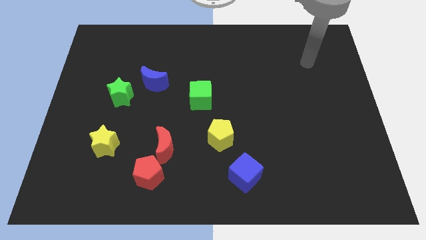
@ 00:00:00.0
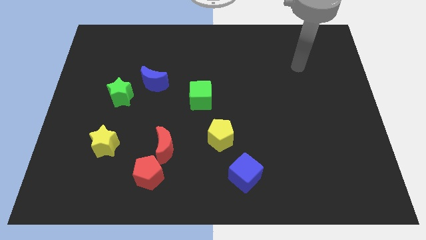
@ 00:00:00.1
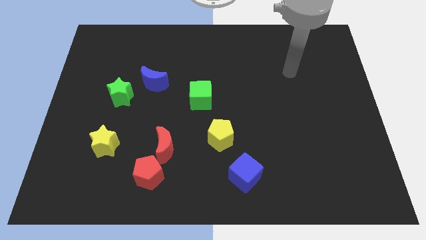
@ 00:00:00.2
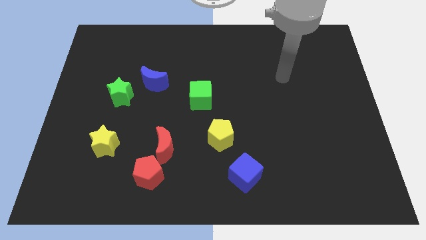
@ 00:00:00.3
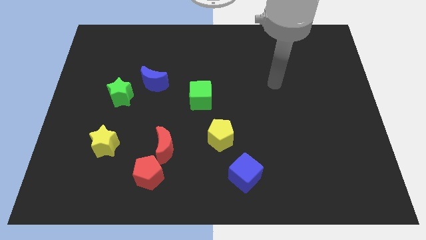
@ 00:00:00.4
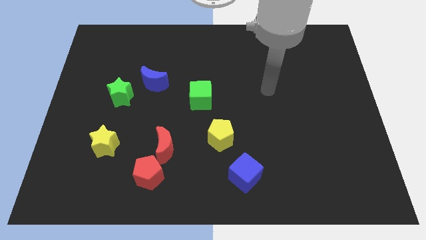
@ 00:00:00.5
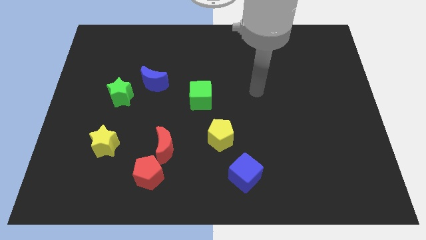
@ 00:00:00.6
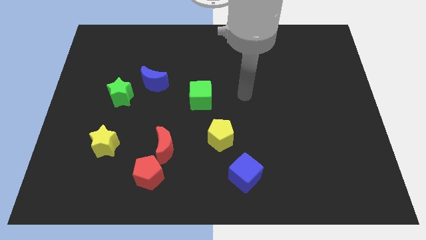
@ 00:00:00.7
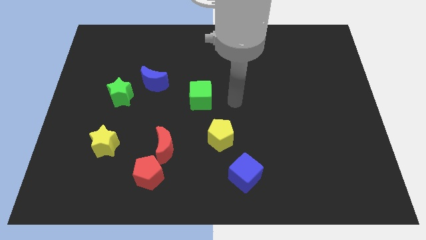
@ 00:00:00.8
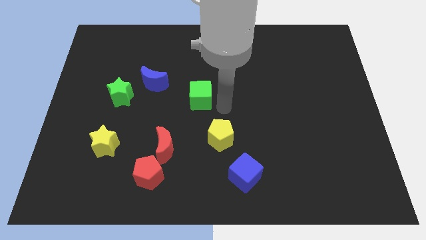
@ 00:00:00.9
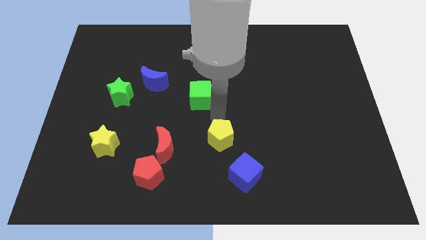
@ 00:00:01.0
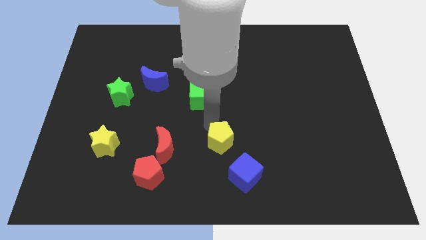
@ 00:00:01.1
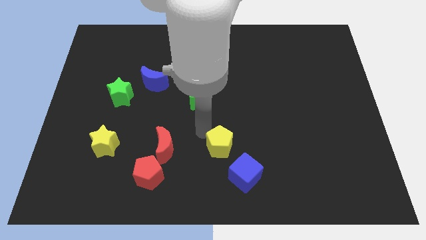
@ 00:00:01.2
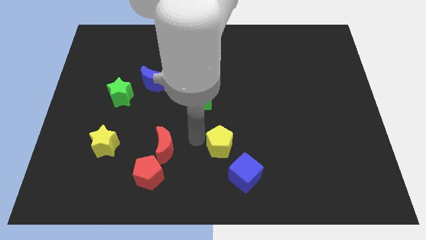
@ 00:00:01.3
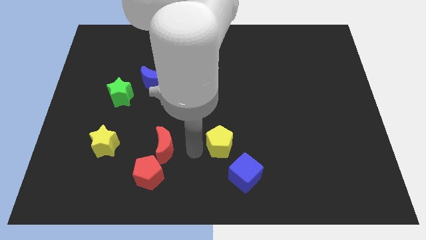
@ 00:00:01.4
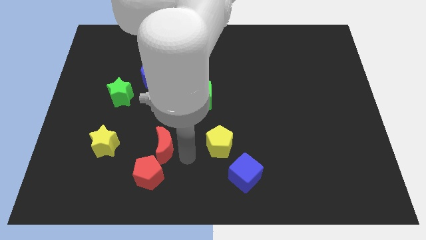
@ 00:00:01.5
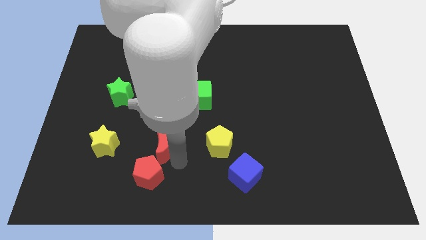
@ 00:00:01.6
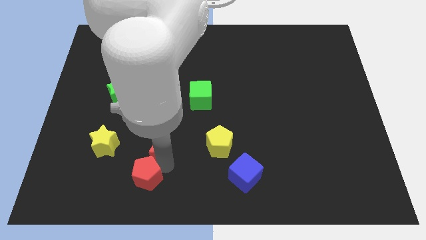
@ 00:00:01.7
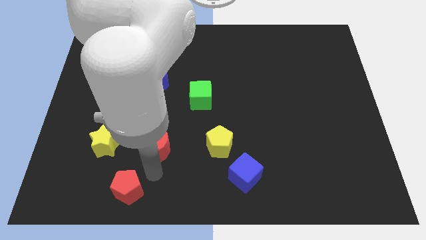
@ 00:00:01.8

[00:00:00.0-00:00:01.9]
move the red moon away from the red pentagon

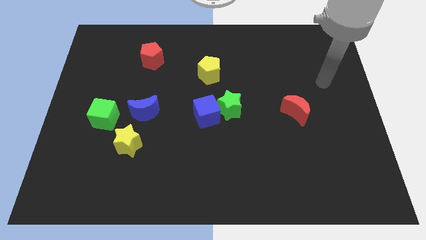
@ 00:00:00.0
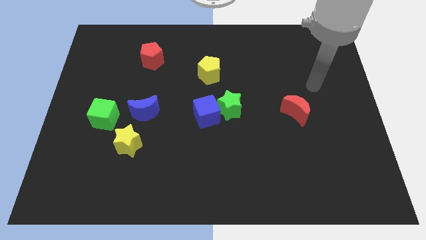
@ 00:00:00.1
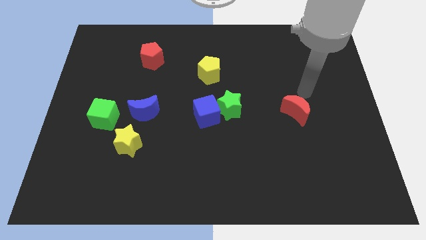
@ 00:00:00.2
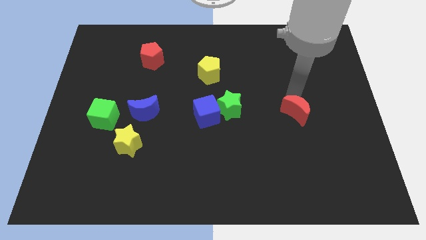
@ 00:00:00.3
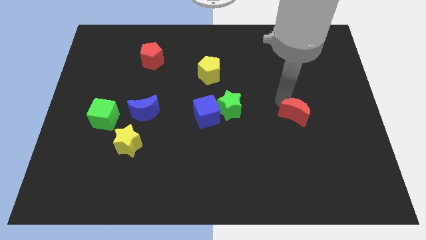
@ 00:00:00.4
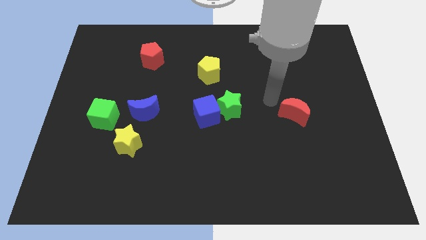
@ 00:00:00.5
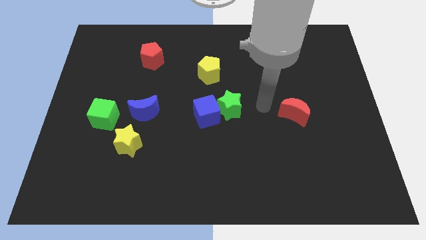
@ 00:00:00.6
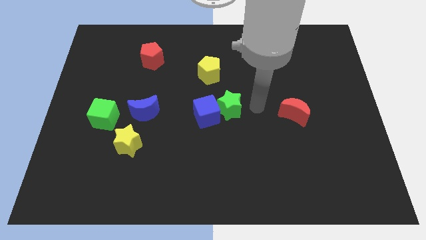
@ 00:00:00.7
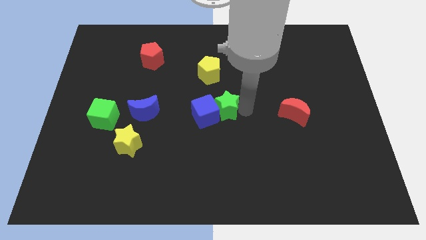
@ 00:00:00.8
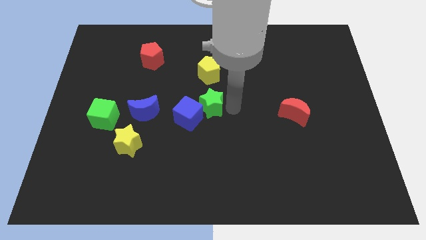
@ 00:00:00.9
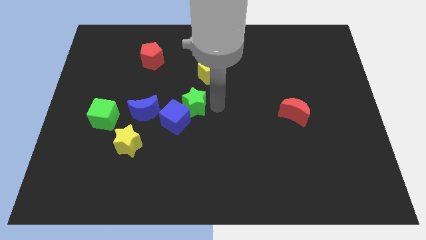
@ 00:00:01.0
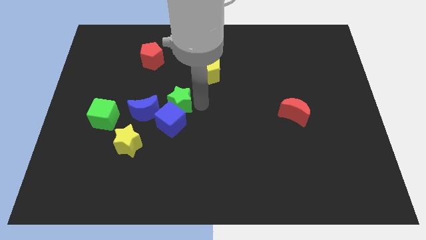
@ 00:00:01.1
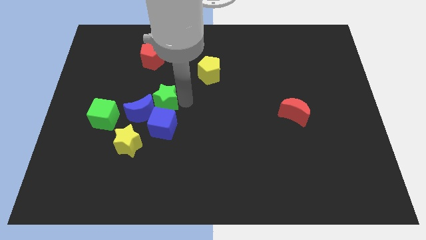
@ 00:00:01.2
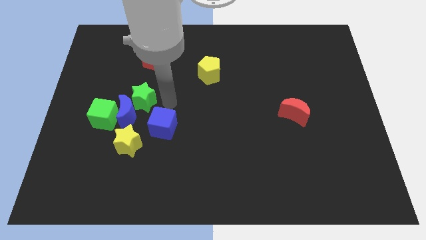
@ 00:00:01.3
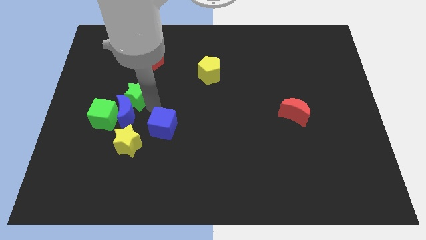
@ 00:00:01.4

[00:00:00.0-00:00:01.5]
move the blue cube away from the green star

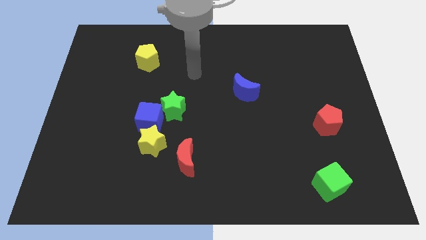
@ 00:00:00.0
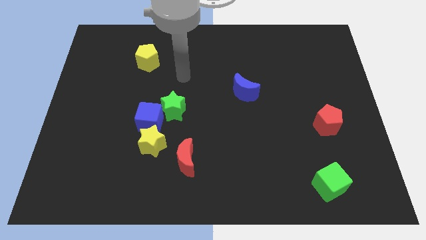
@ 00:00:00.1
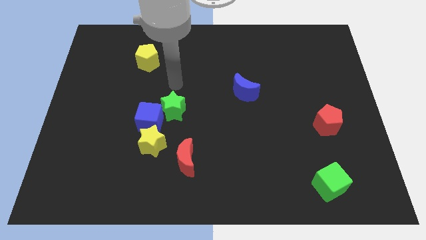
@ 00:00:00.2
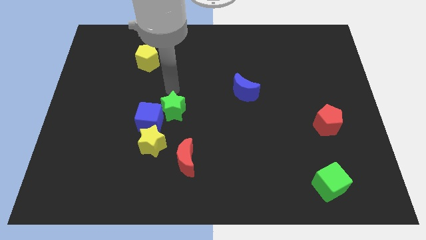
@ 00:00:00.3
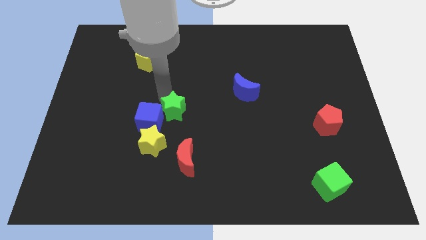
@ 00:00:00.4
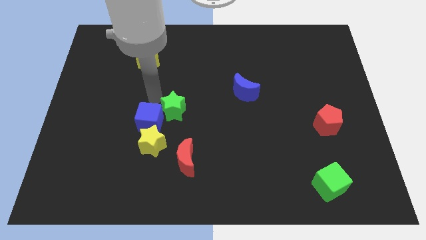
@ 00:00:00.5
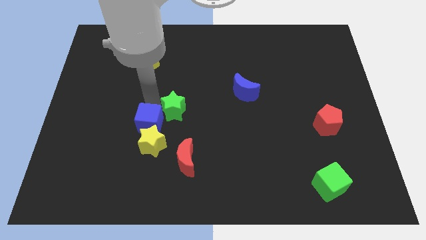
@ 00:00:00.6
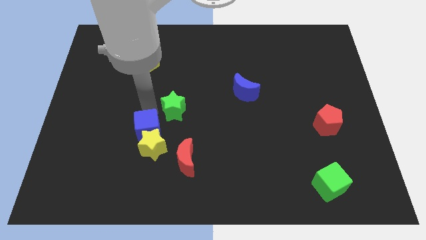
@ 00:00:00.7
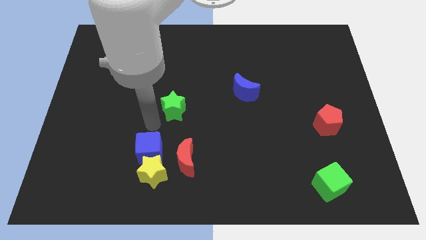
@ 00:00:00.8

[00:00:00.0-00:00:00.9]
move the green star away from the blue cube

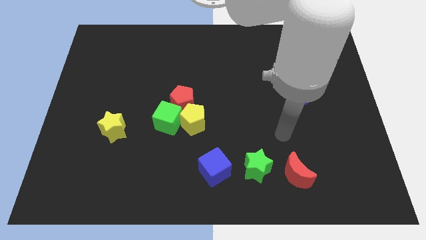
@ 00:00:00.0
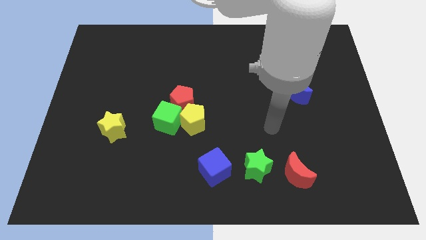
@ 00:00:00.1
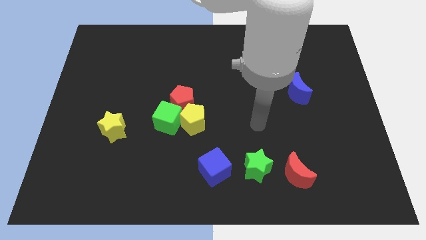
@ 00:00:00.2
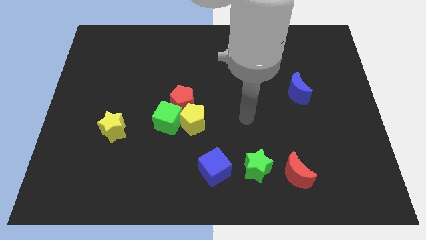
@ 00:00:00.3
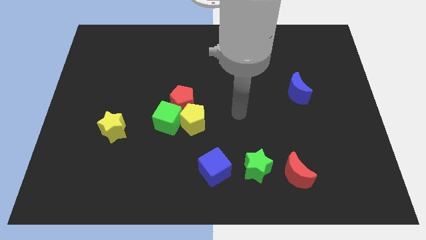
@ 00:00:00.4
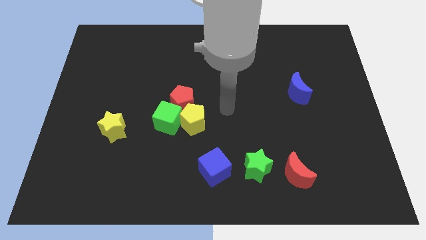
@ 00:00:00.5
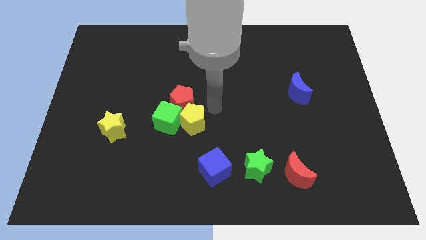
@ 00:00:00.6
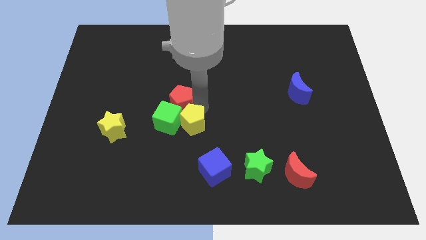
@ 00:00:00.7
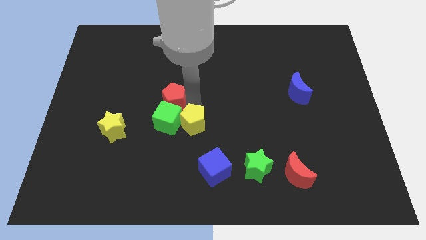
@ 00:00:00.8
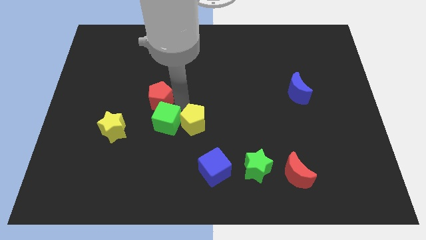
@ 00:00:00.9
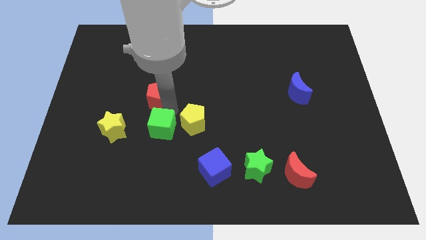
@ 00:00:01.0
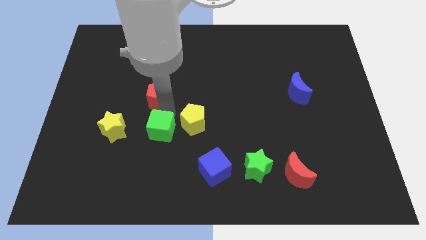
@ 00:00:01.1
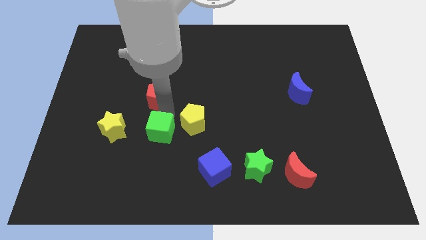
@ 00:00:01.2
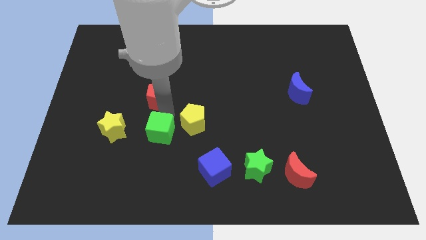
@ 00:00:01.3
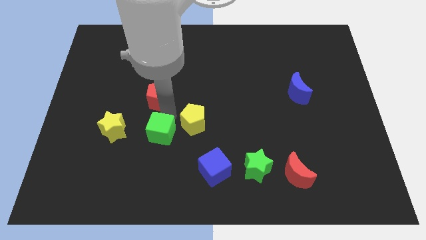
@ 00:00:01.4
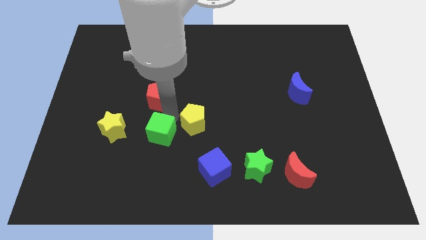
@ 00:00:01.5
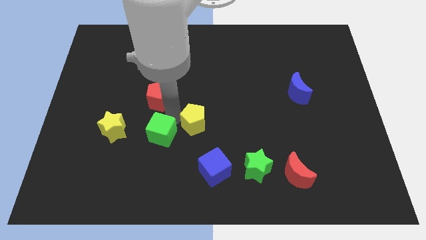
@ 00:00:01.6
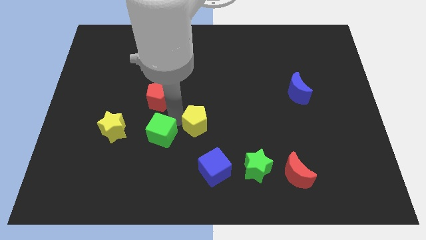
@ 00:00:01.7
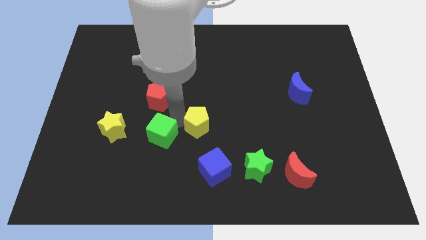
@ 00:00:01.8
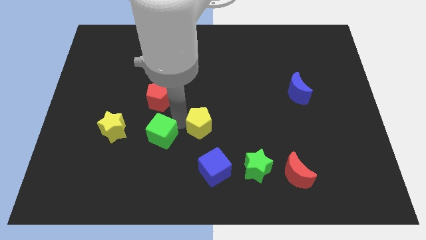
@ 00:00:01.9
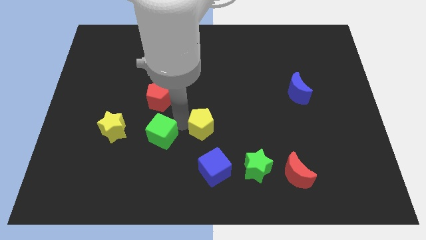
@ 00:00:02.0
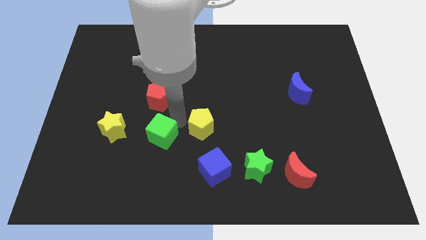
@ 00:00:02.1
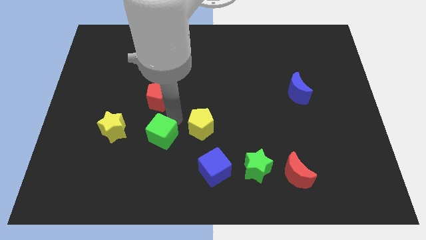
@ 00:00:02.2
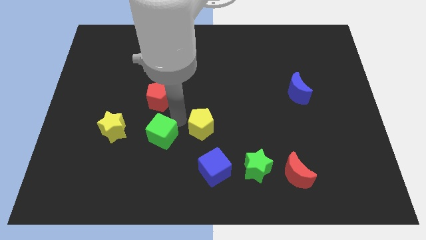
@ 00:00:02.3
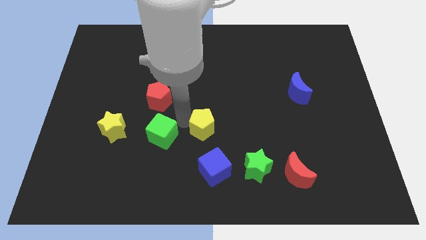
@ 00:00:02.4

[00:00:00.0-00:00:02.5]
move the yellow pentagon away from the green cube and red pentagon

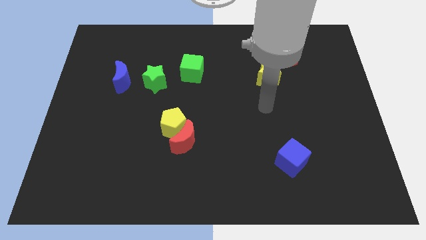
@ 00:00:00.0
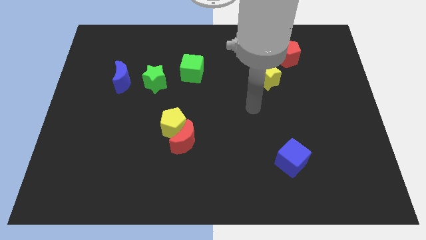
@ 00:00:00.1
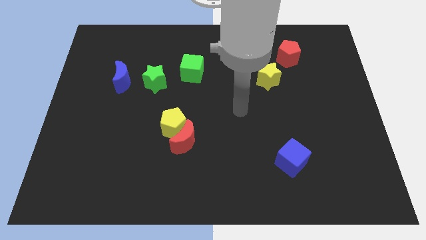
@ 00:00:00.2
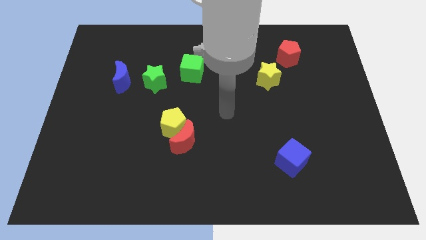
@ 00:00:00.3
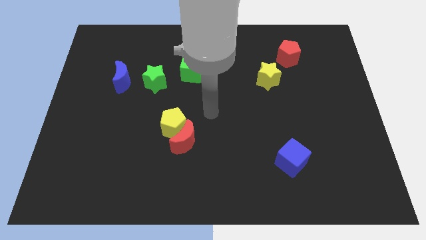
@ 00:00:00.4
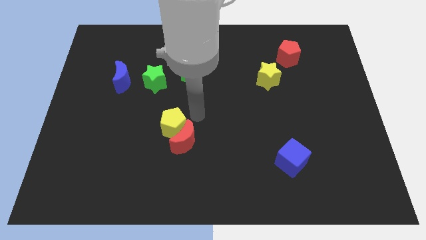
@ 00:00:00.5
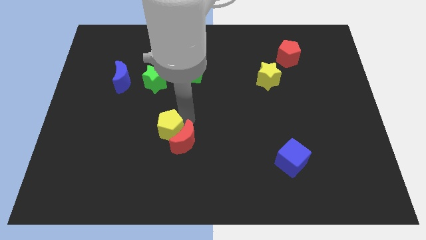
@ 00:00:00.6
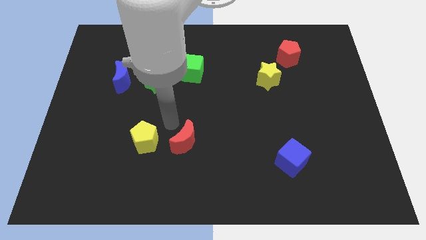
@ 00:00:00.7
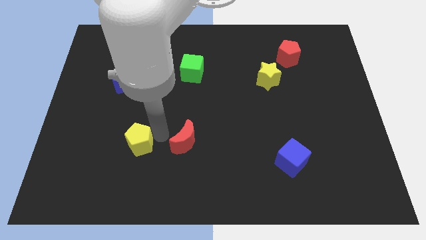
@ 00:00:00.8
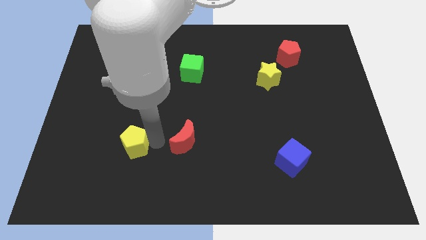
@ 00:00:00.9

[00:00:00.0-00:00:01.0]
separate the red moon from the yellow pentagon

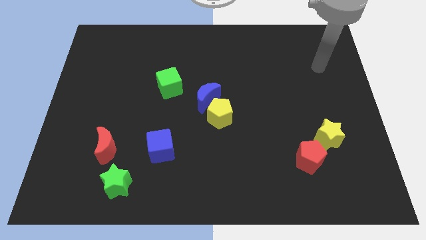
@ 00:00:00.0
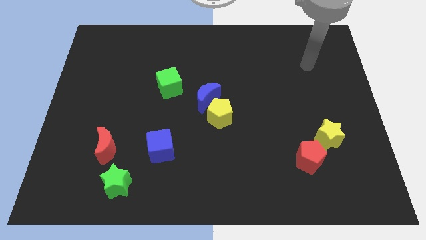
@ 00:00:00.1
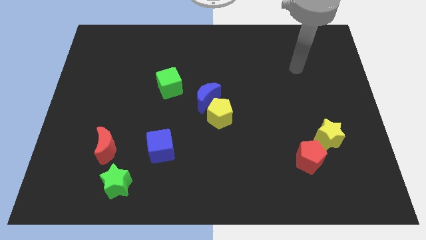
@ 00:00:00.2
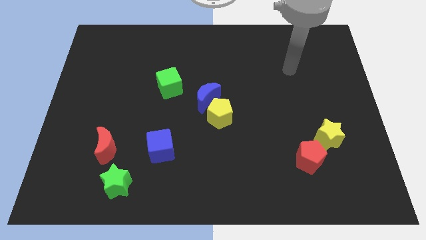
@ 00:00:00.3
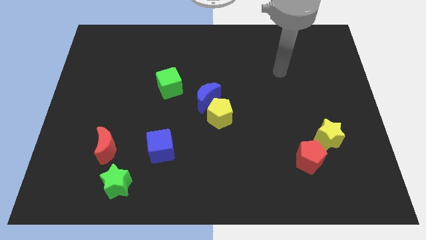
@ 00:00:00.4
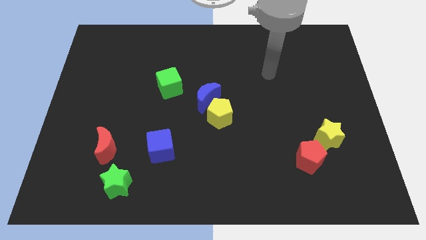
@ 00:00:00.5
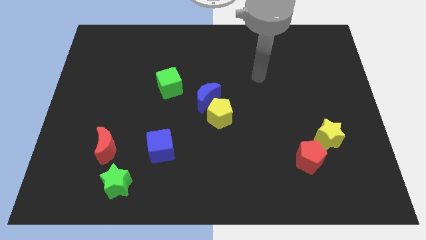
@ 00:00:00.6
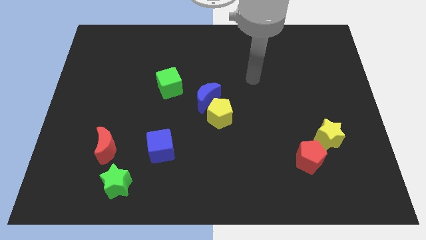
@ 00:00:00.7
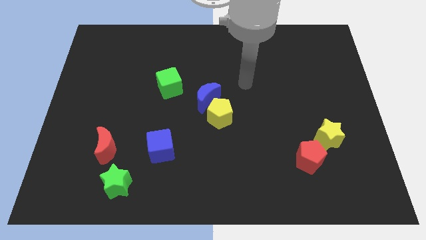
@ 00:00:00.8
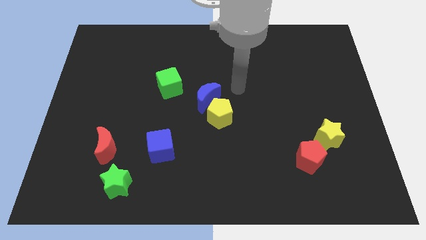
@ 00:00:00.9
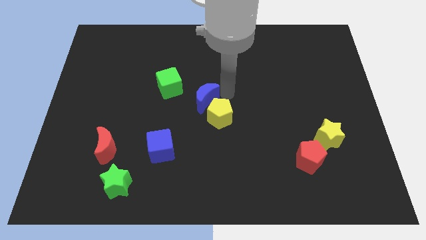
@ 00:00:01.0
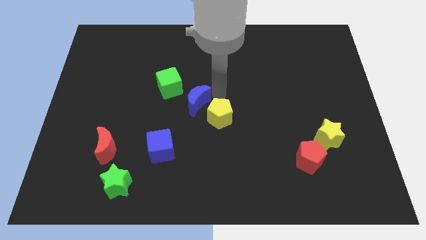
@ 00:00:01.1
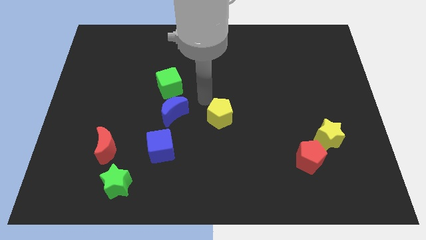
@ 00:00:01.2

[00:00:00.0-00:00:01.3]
separate the yellow pentagon from the blue moon
